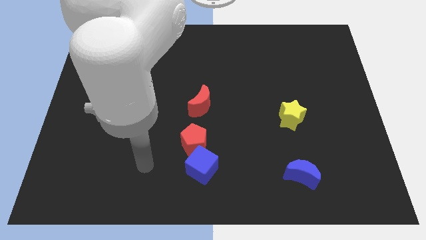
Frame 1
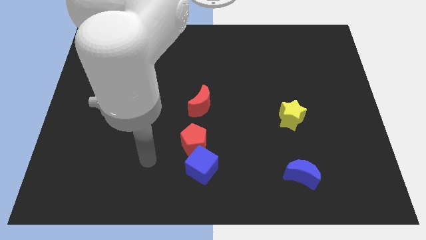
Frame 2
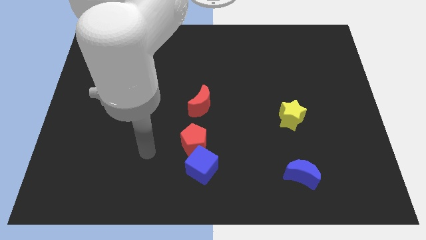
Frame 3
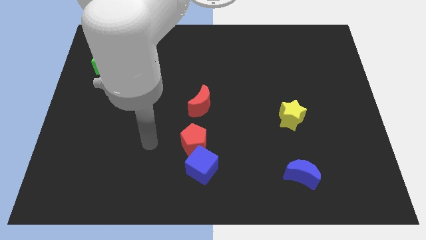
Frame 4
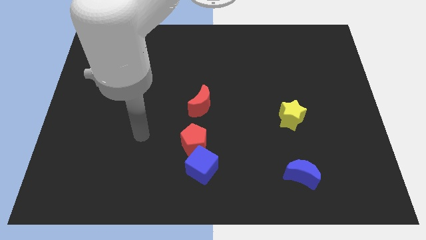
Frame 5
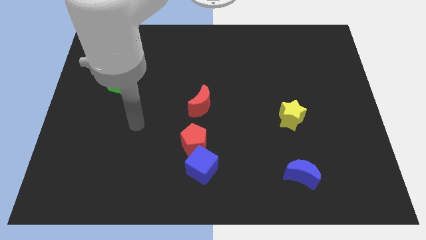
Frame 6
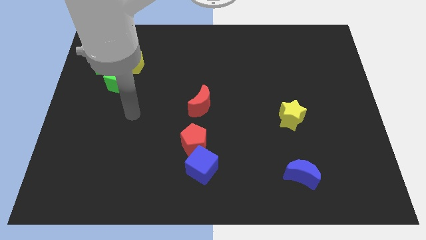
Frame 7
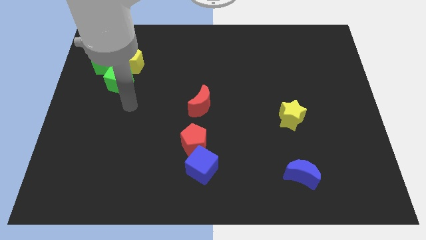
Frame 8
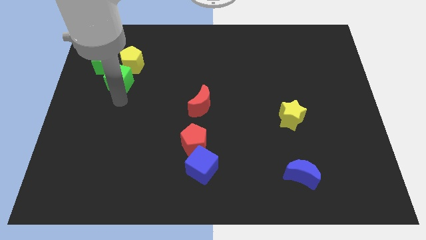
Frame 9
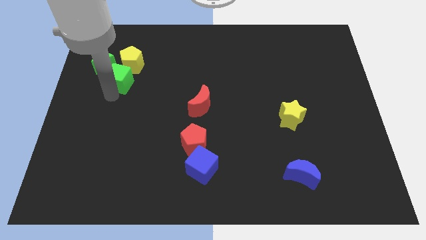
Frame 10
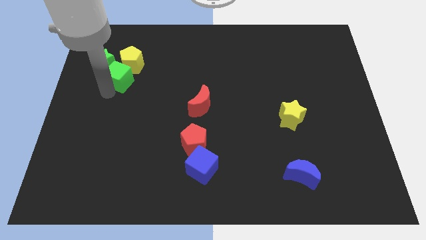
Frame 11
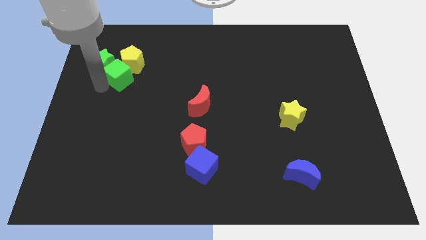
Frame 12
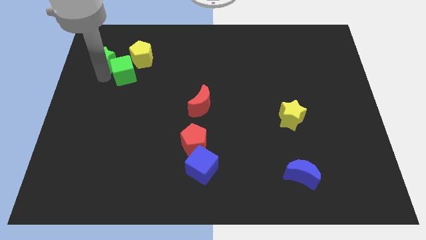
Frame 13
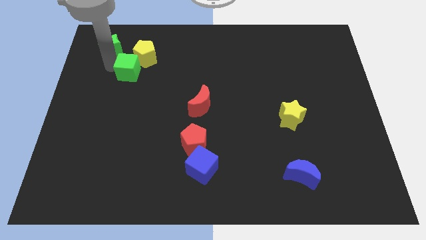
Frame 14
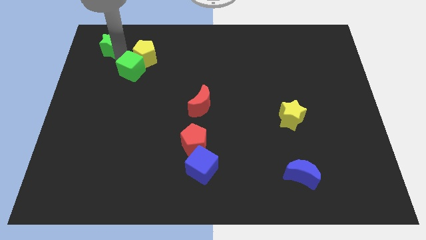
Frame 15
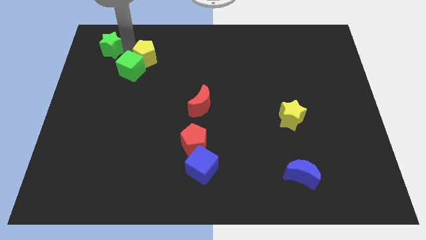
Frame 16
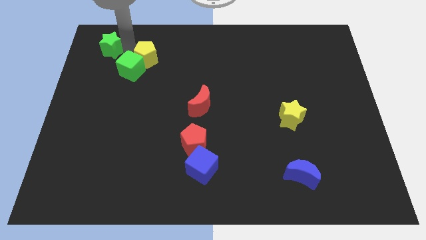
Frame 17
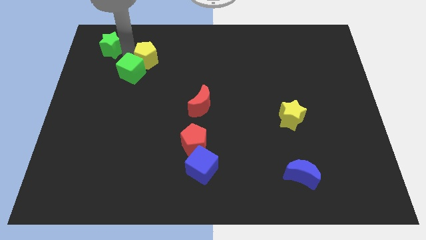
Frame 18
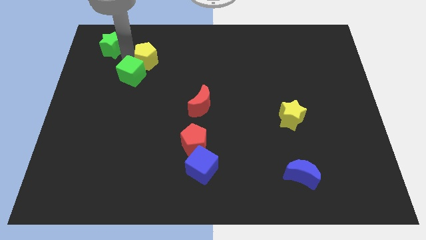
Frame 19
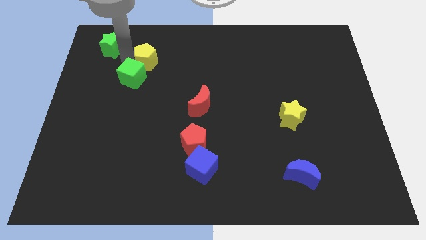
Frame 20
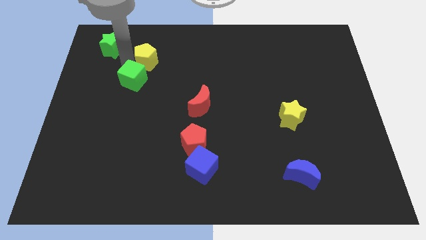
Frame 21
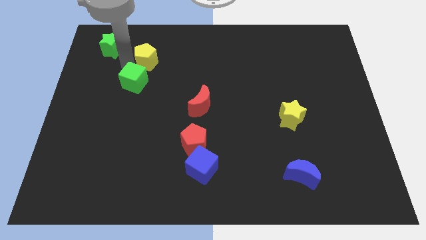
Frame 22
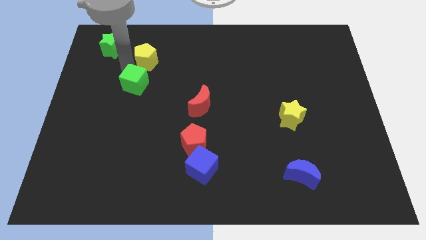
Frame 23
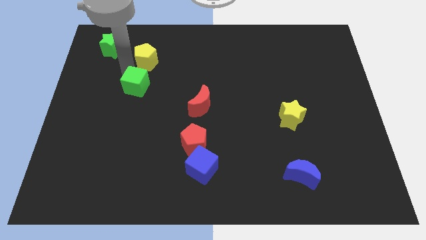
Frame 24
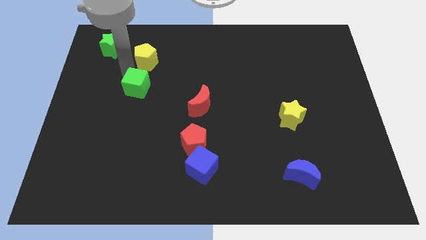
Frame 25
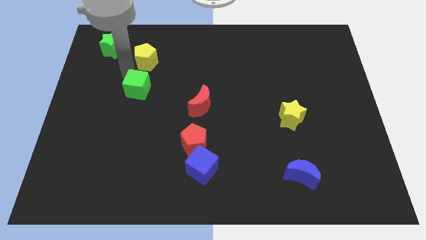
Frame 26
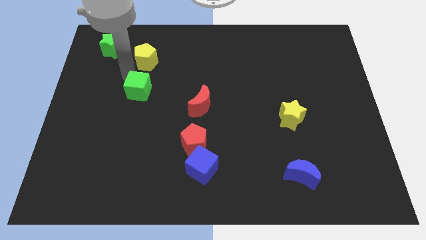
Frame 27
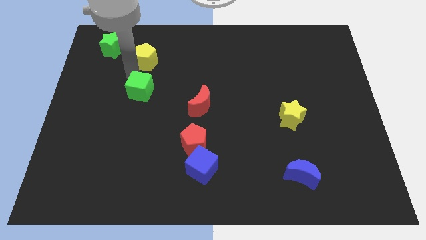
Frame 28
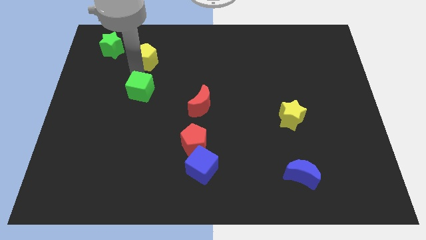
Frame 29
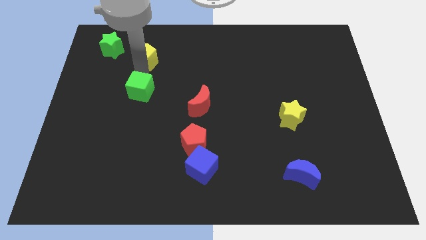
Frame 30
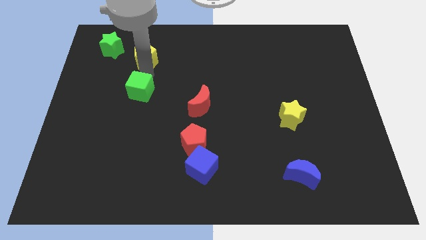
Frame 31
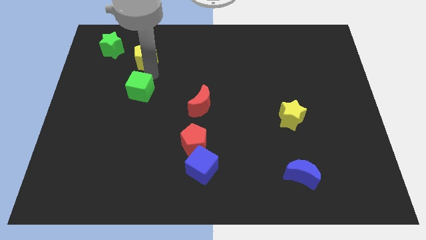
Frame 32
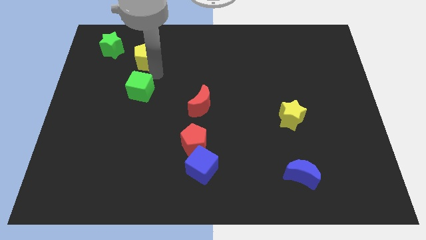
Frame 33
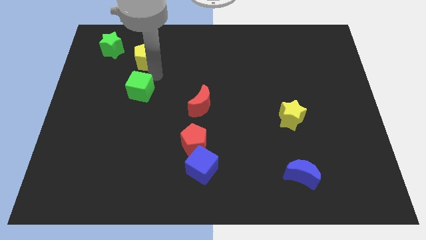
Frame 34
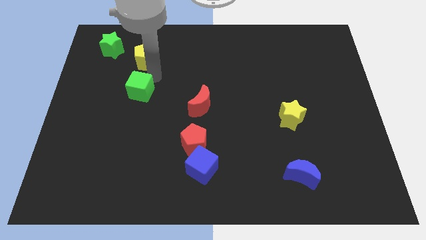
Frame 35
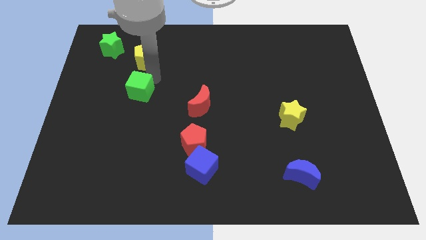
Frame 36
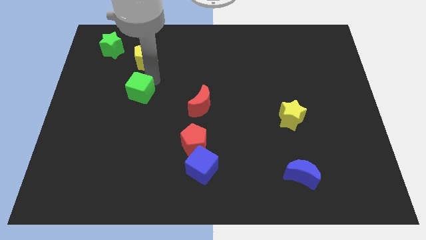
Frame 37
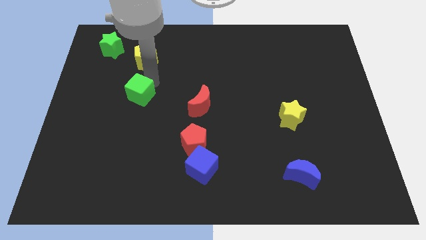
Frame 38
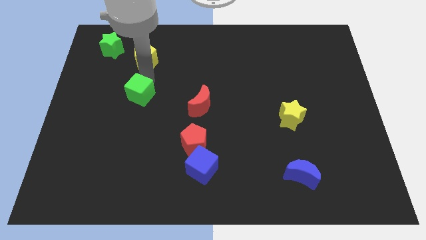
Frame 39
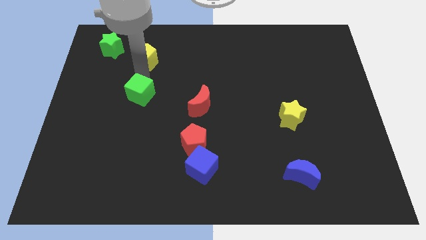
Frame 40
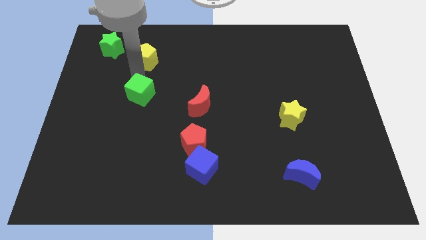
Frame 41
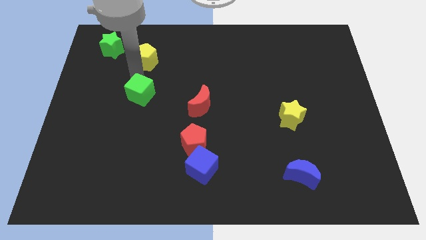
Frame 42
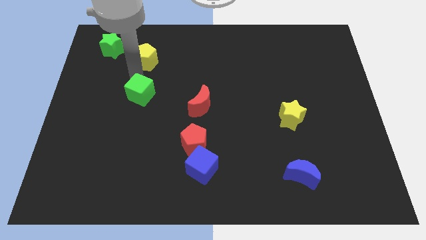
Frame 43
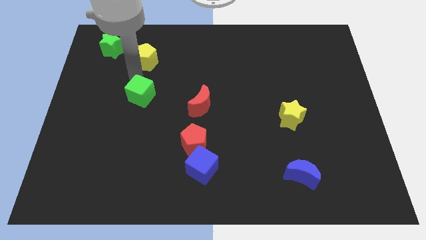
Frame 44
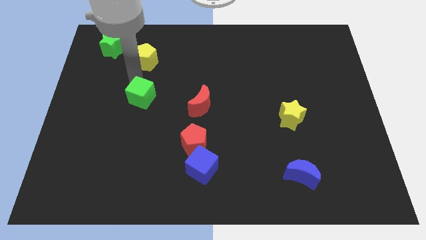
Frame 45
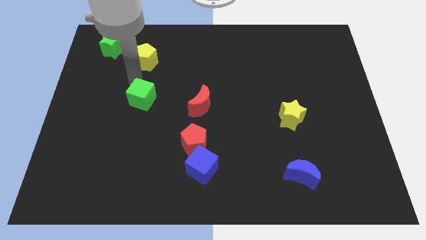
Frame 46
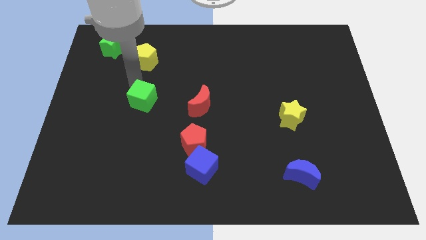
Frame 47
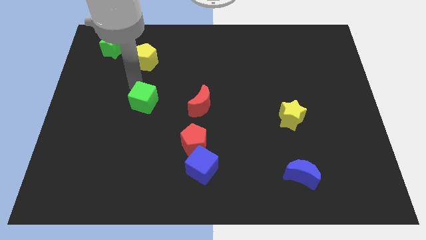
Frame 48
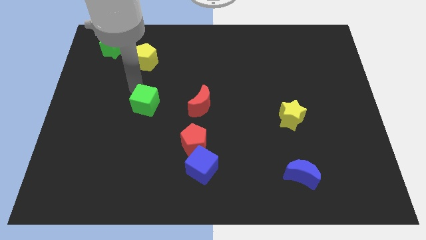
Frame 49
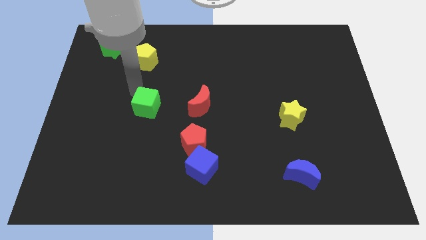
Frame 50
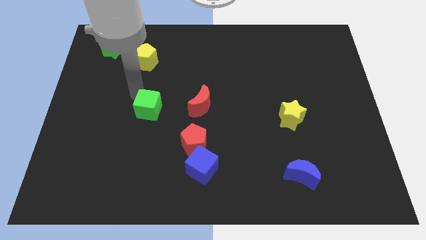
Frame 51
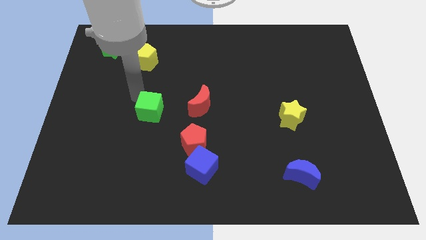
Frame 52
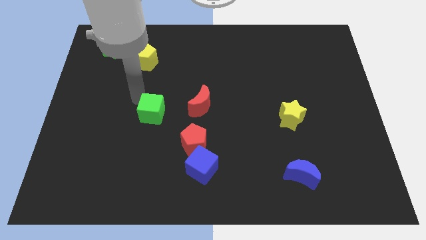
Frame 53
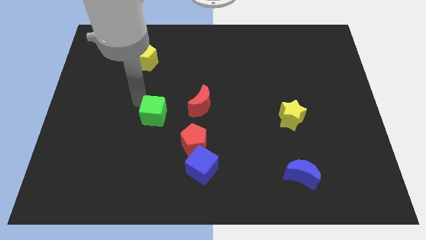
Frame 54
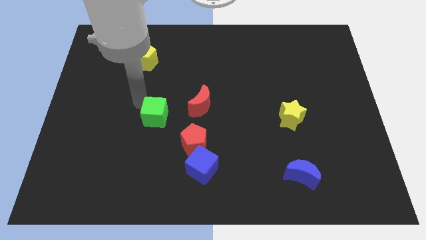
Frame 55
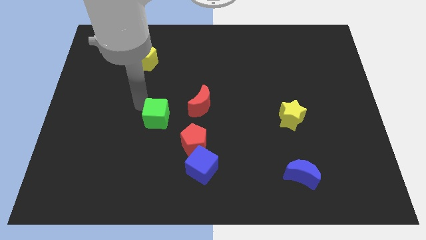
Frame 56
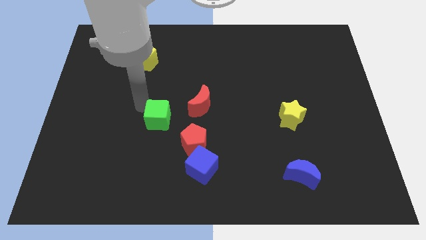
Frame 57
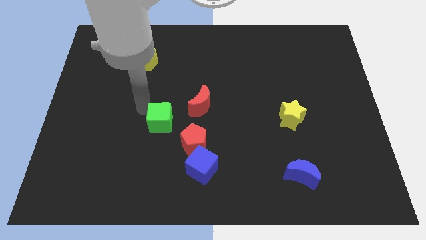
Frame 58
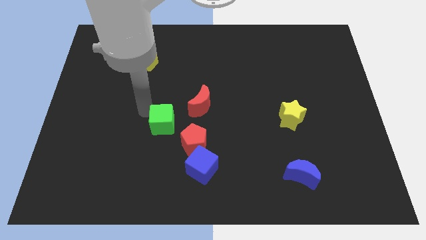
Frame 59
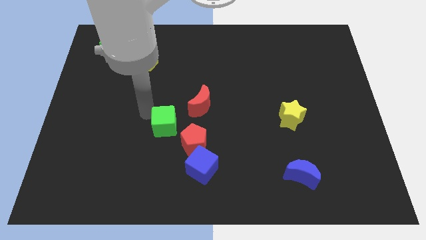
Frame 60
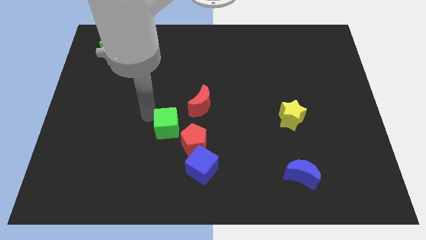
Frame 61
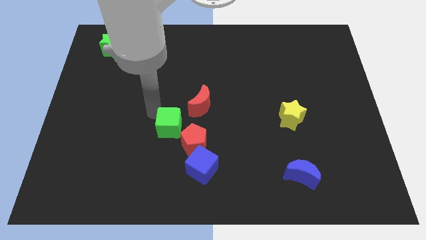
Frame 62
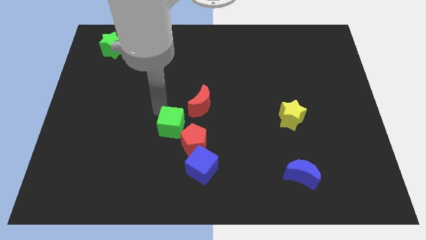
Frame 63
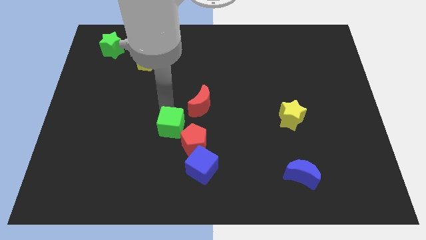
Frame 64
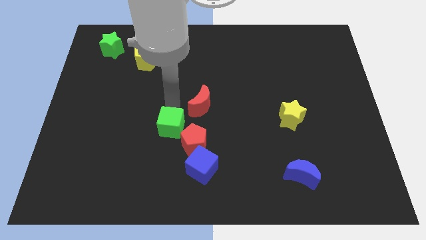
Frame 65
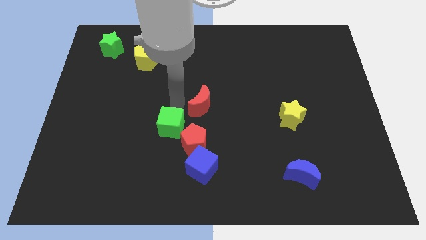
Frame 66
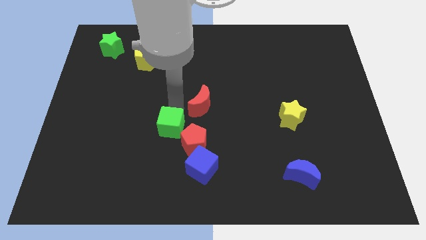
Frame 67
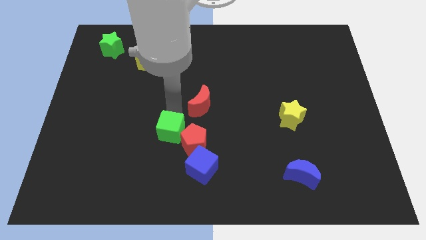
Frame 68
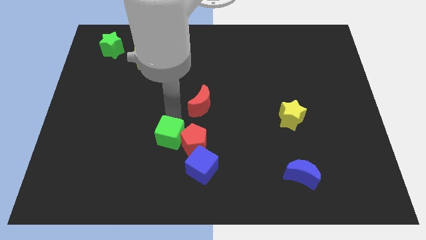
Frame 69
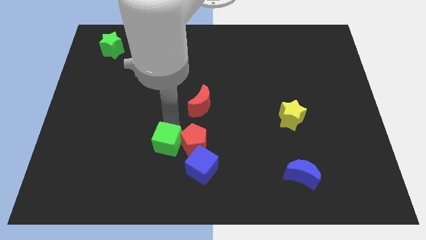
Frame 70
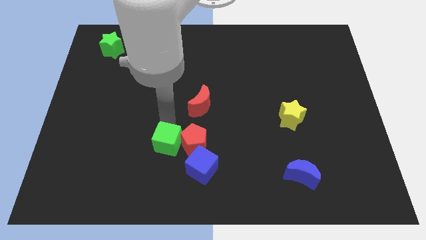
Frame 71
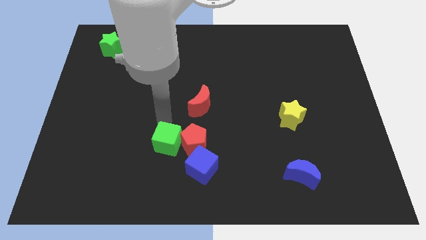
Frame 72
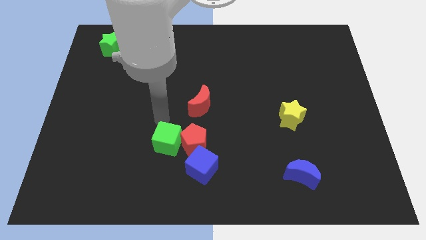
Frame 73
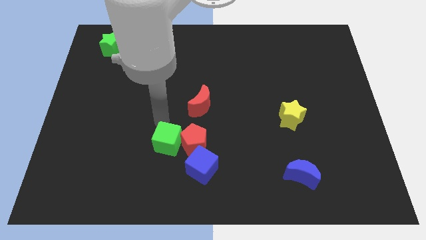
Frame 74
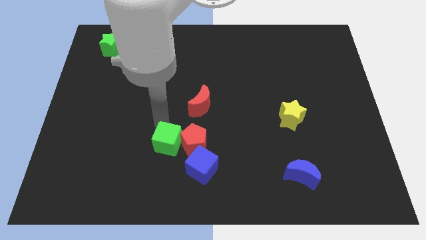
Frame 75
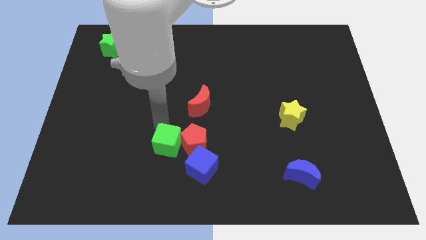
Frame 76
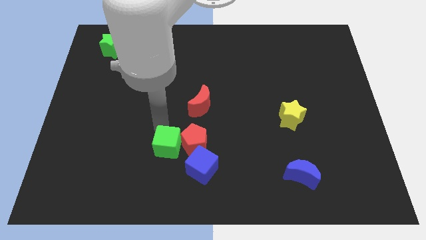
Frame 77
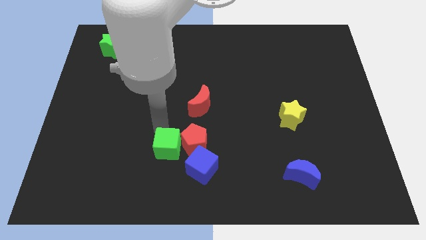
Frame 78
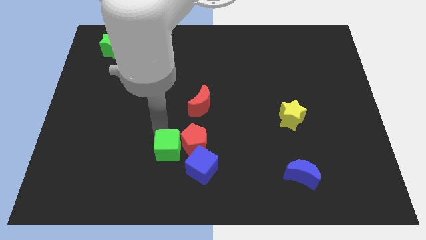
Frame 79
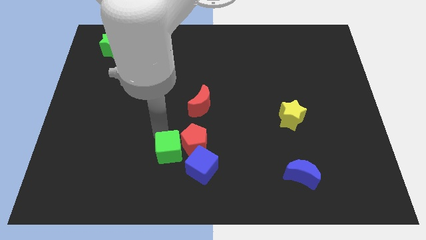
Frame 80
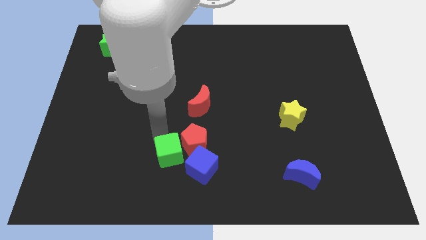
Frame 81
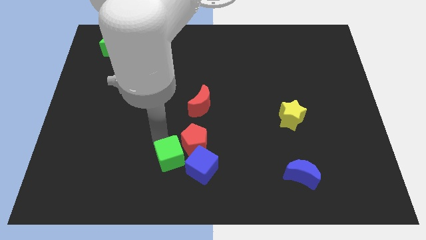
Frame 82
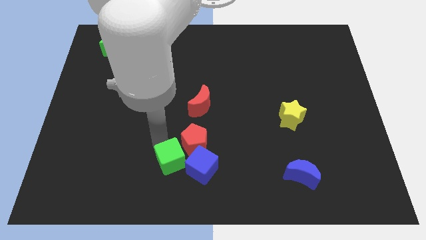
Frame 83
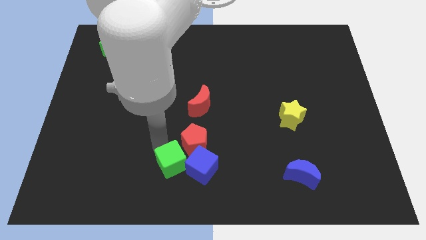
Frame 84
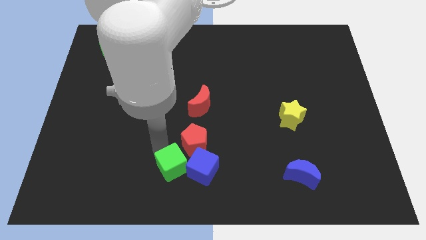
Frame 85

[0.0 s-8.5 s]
move the green cube to the bottom side
